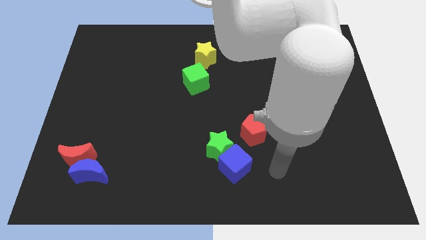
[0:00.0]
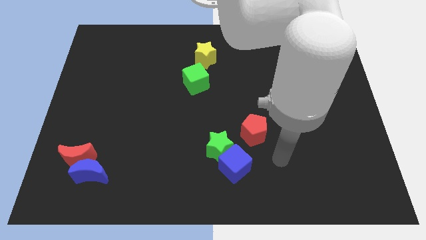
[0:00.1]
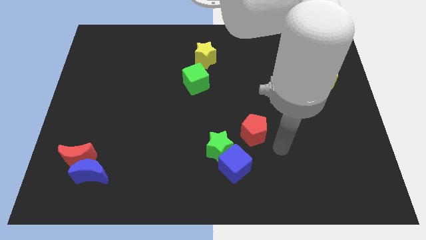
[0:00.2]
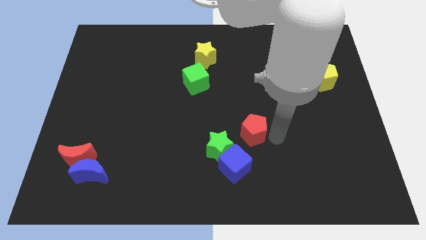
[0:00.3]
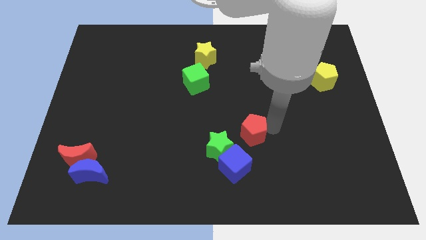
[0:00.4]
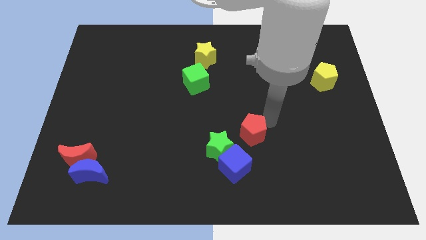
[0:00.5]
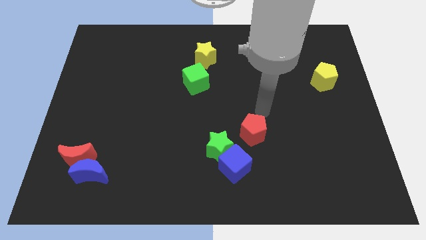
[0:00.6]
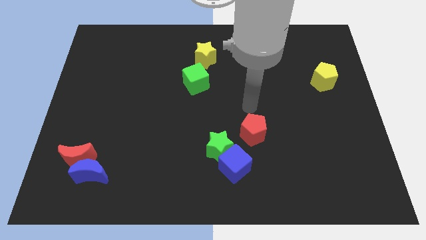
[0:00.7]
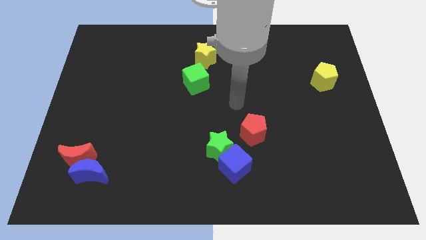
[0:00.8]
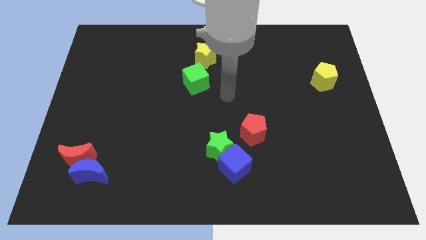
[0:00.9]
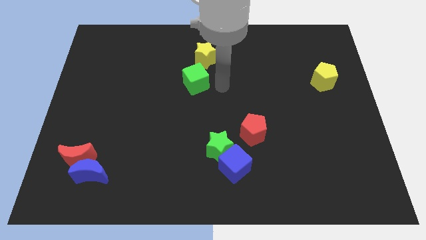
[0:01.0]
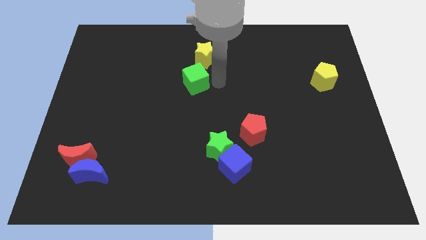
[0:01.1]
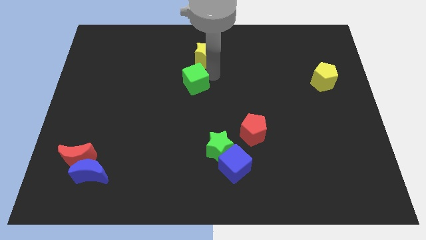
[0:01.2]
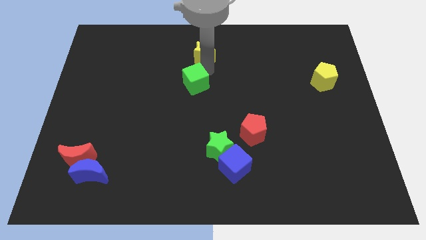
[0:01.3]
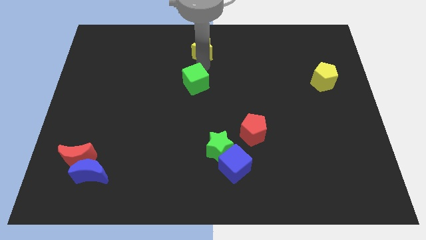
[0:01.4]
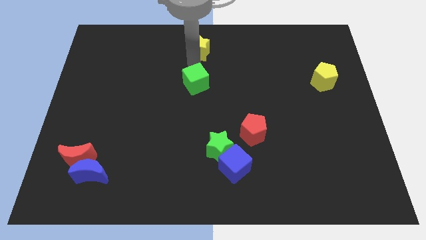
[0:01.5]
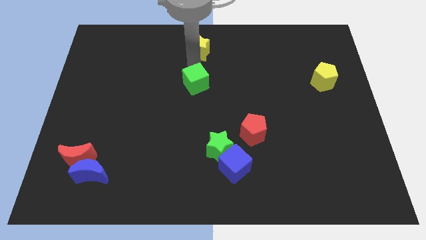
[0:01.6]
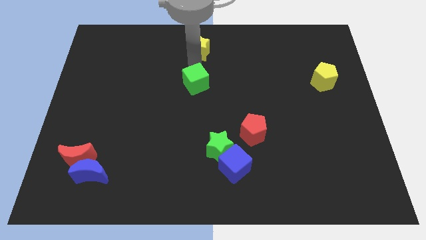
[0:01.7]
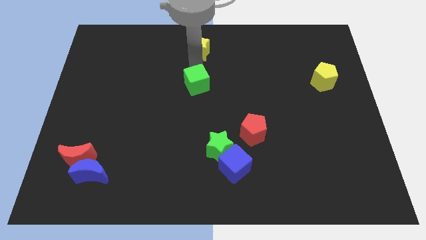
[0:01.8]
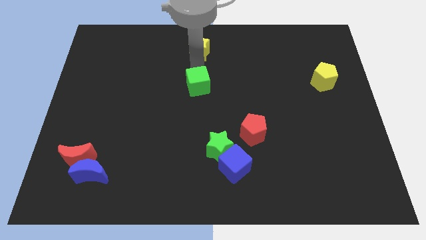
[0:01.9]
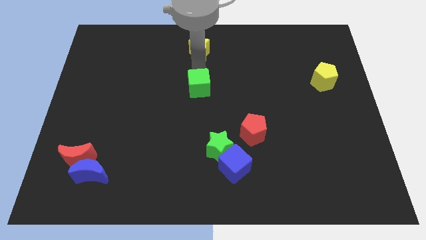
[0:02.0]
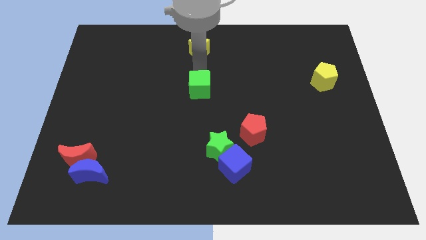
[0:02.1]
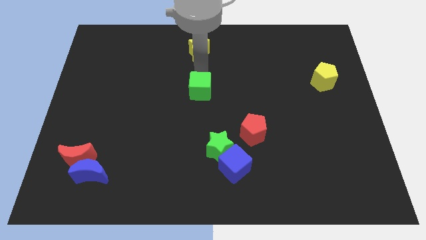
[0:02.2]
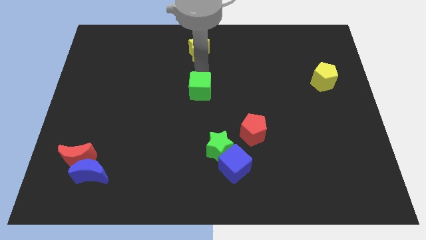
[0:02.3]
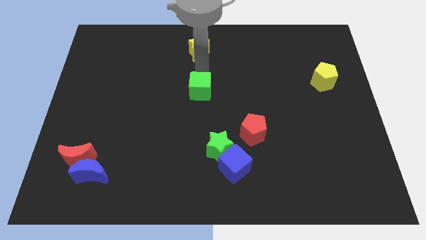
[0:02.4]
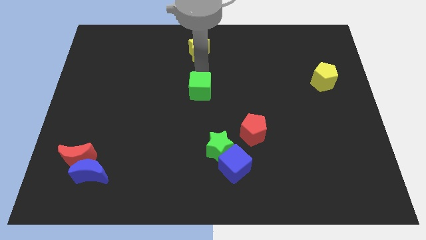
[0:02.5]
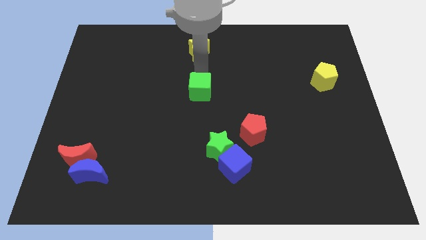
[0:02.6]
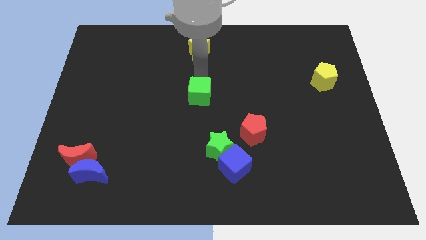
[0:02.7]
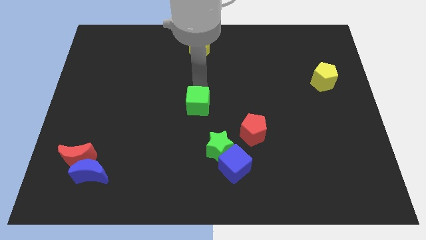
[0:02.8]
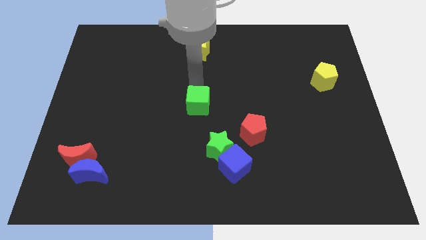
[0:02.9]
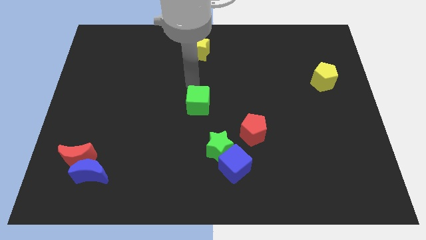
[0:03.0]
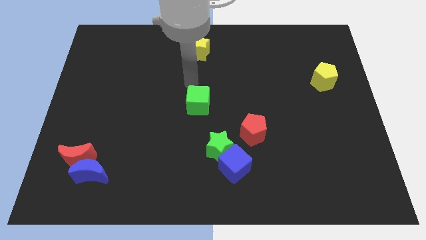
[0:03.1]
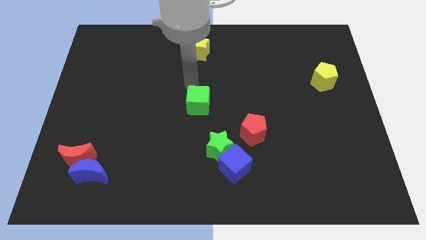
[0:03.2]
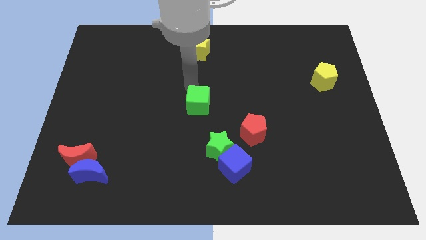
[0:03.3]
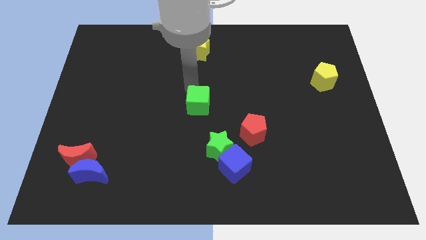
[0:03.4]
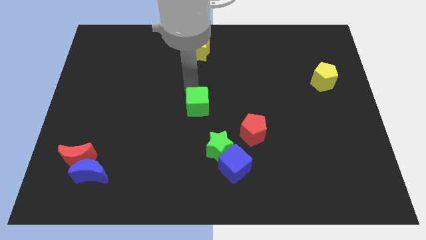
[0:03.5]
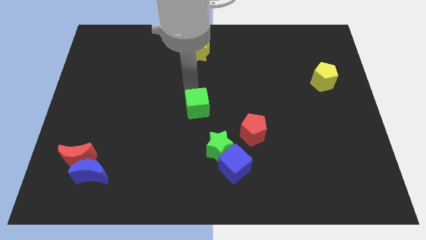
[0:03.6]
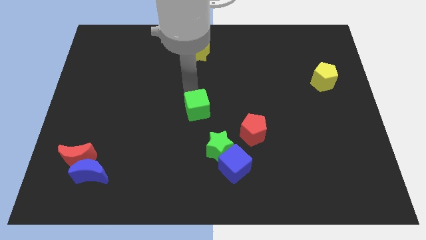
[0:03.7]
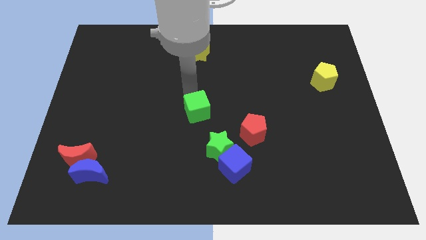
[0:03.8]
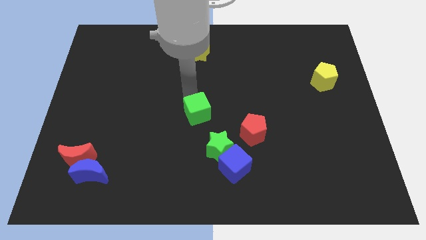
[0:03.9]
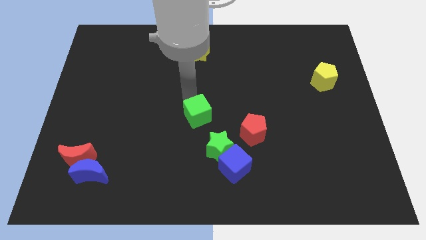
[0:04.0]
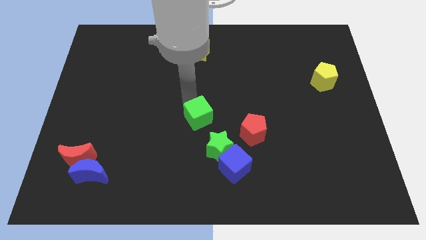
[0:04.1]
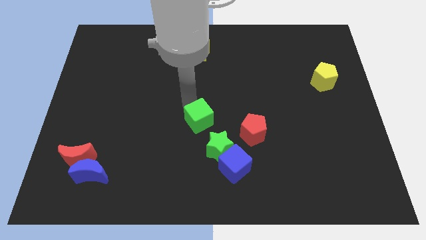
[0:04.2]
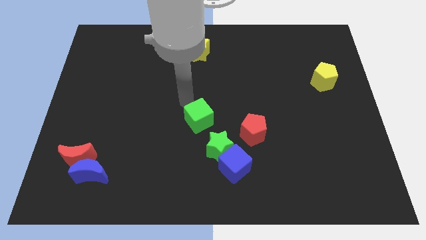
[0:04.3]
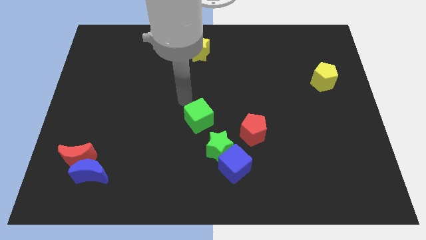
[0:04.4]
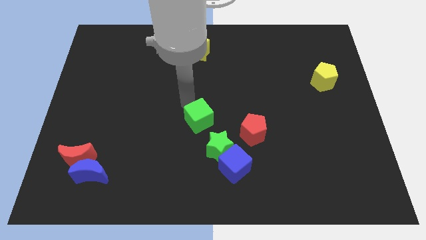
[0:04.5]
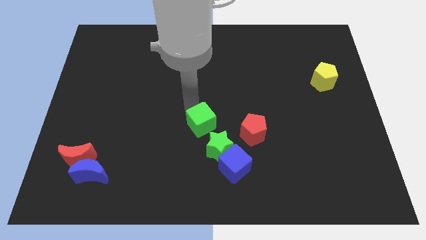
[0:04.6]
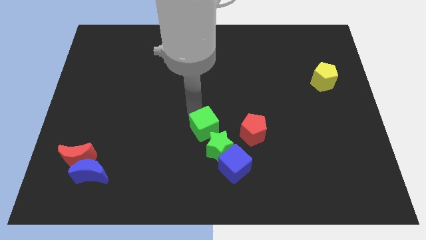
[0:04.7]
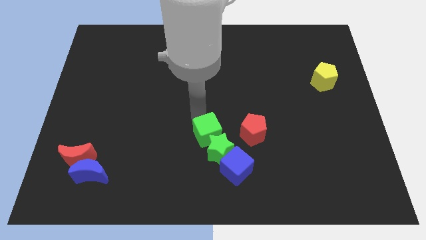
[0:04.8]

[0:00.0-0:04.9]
push the green cube next to the green star

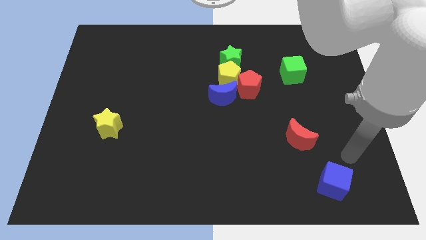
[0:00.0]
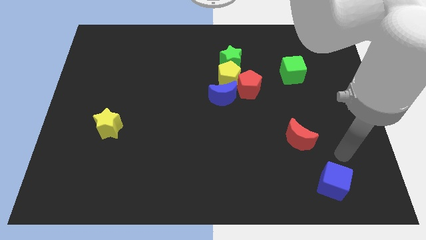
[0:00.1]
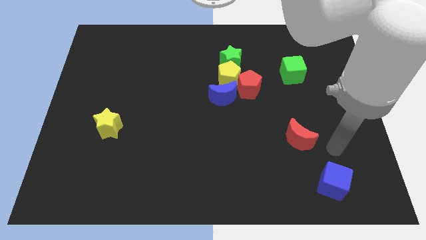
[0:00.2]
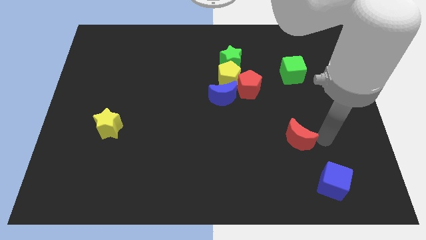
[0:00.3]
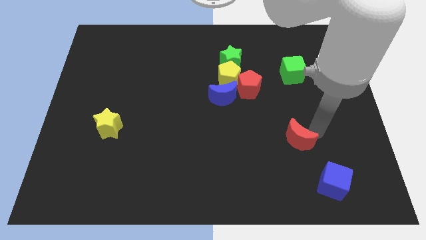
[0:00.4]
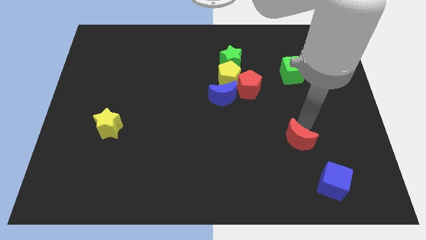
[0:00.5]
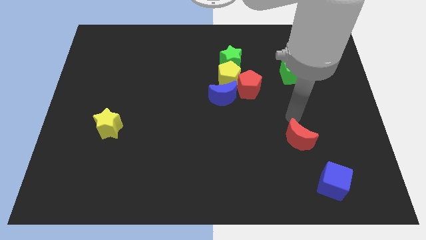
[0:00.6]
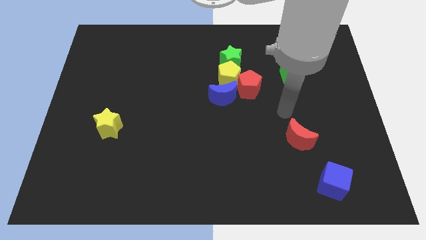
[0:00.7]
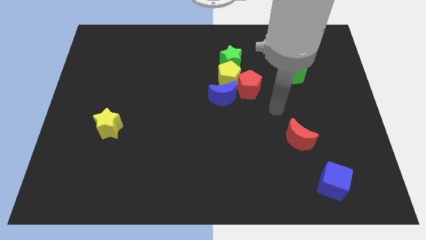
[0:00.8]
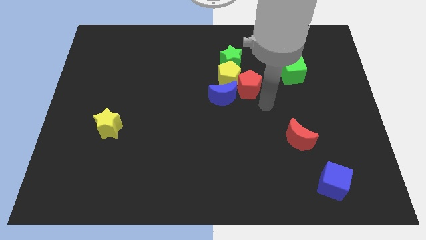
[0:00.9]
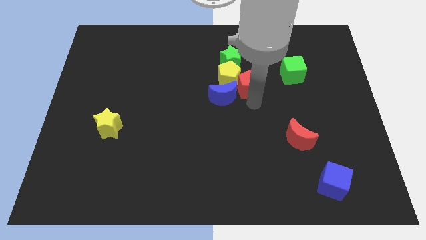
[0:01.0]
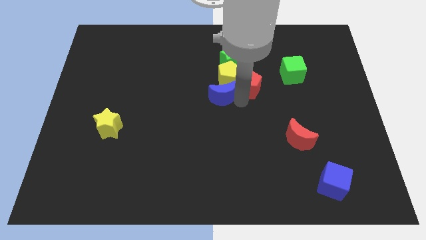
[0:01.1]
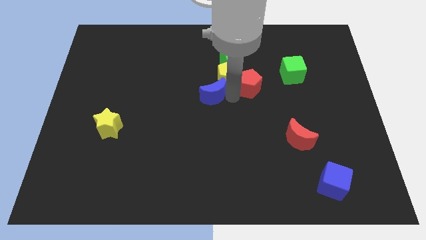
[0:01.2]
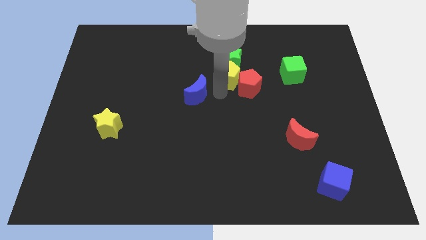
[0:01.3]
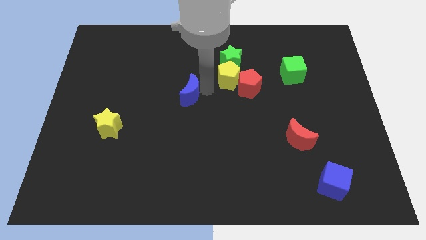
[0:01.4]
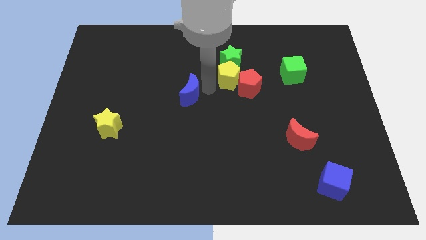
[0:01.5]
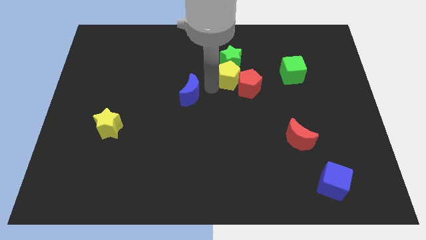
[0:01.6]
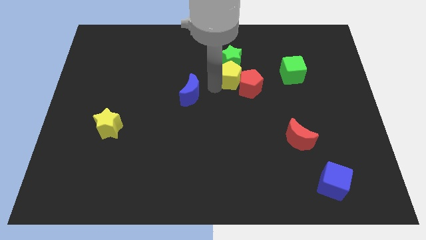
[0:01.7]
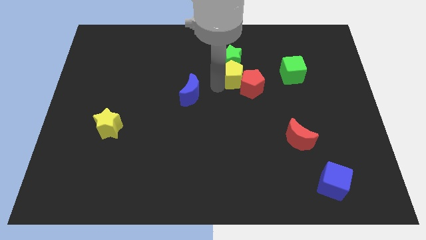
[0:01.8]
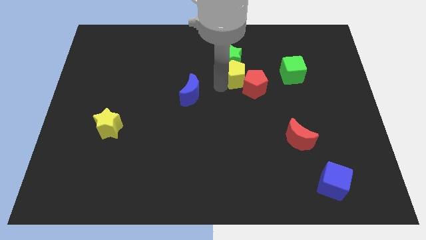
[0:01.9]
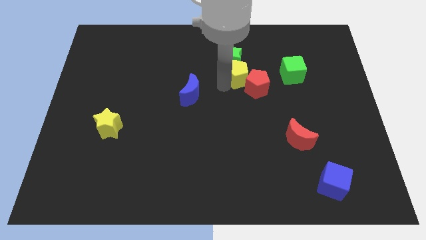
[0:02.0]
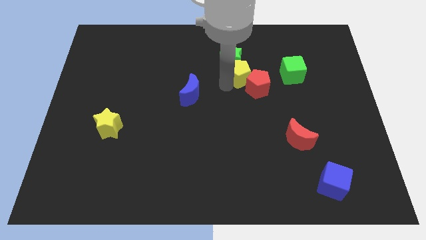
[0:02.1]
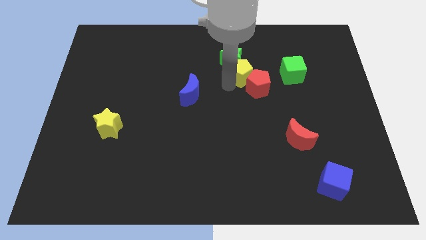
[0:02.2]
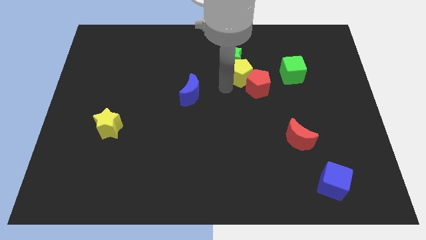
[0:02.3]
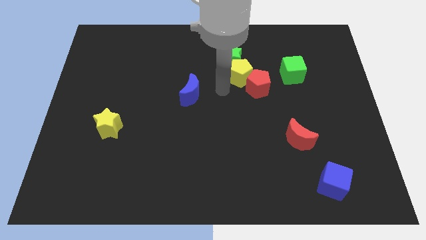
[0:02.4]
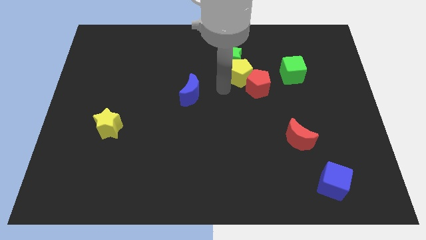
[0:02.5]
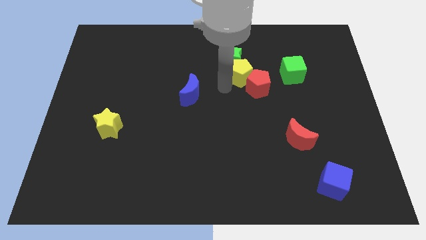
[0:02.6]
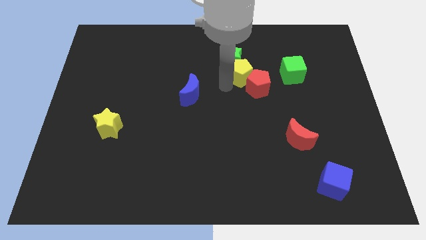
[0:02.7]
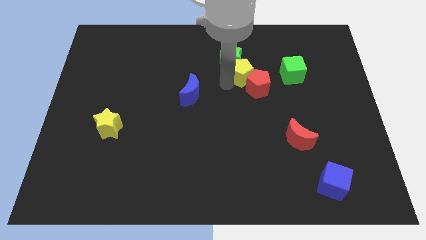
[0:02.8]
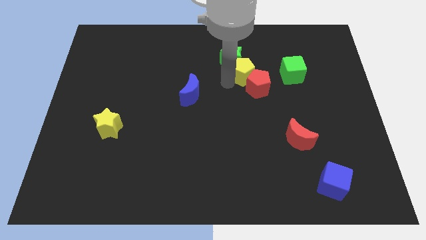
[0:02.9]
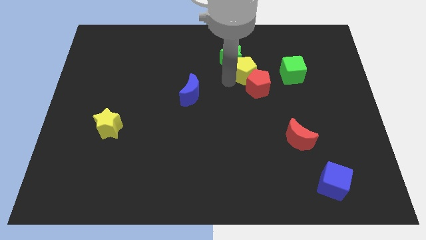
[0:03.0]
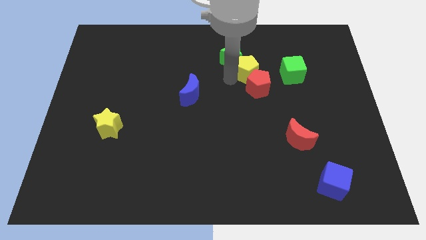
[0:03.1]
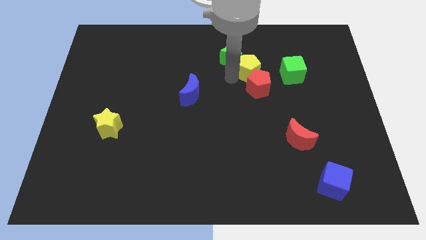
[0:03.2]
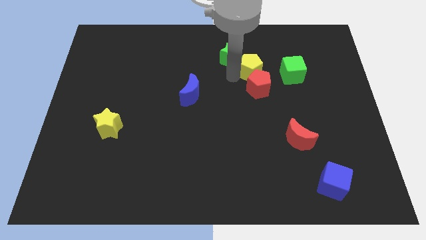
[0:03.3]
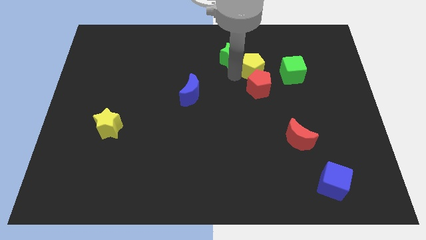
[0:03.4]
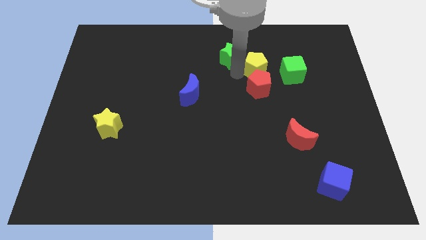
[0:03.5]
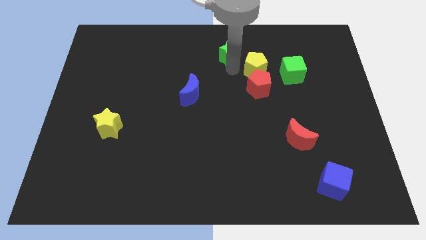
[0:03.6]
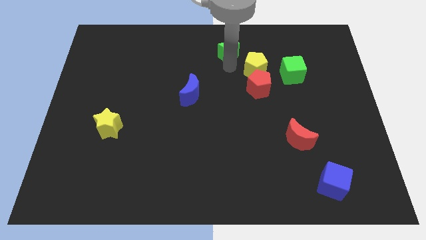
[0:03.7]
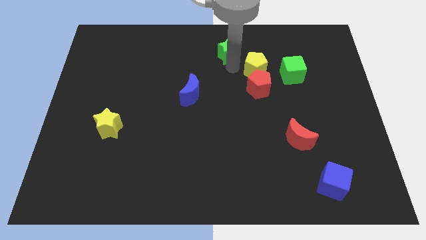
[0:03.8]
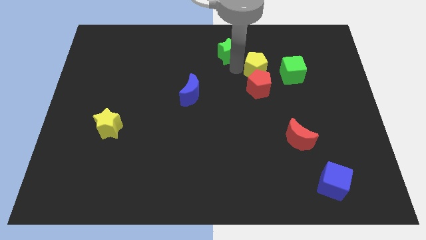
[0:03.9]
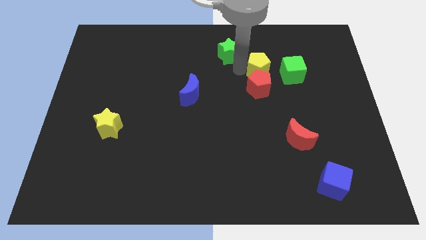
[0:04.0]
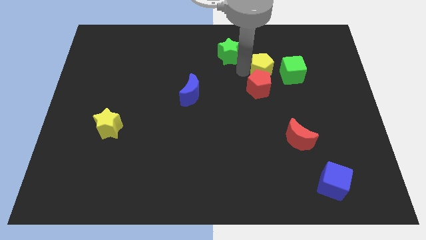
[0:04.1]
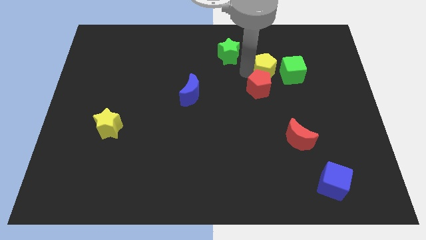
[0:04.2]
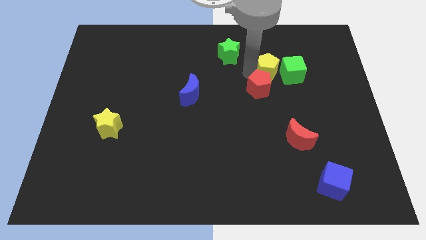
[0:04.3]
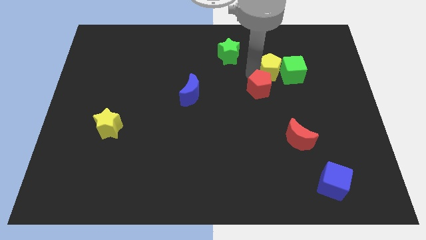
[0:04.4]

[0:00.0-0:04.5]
push the yellow pentagon to the green cube
